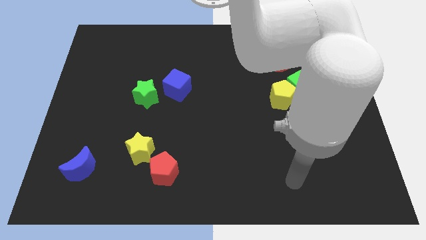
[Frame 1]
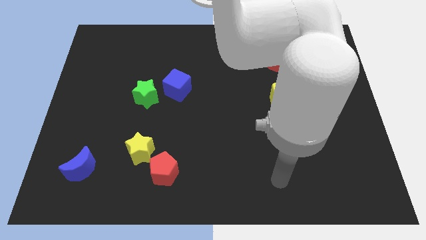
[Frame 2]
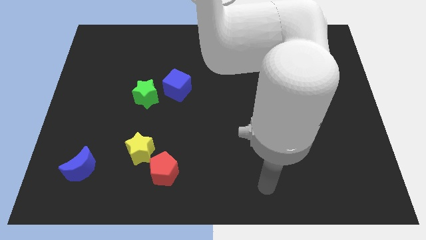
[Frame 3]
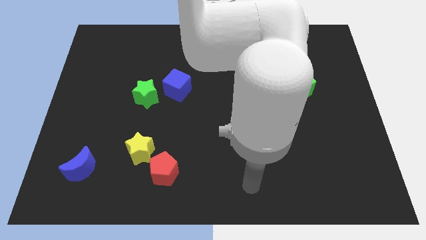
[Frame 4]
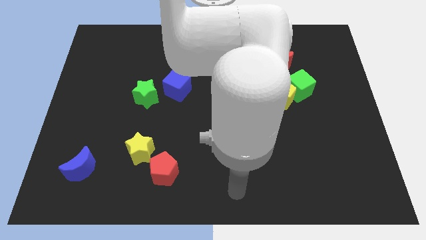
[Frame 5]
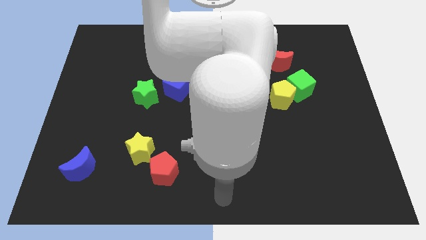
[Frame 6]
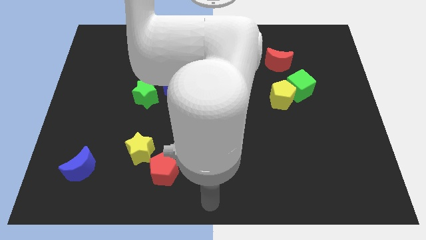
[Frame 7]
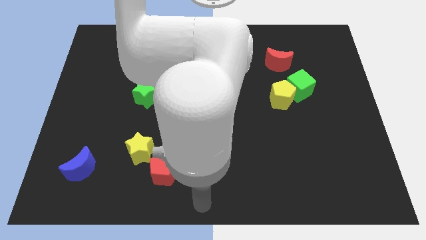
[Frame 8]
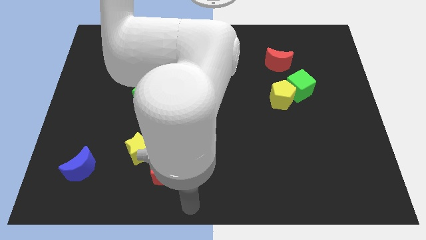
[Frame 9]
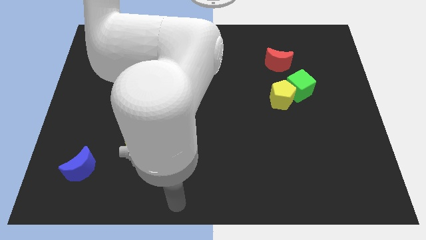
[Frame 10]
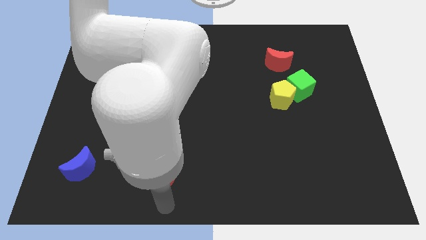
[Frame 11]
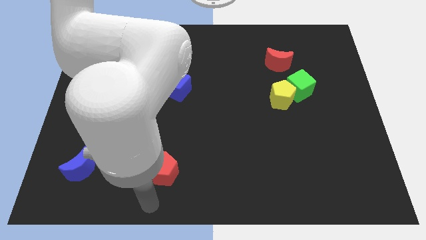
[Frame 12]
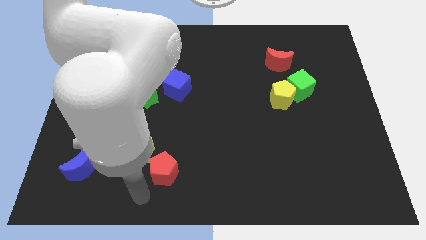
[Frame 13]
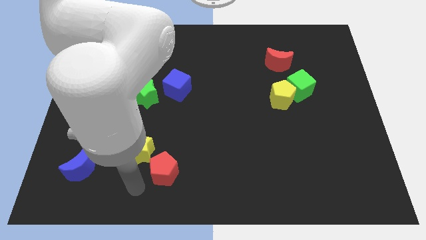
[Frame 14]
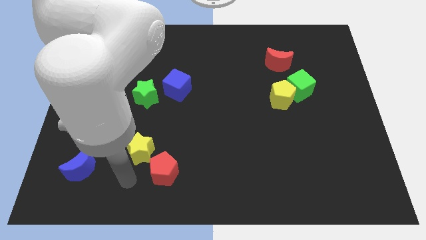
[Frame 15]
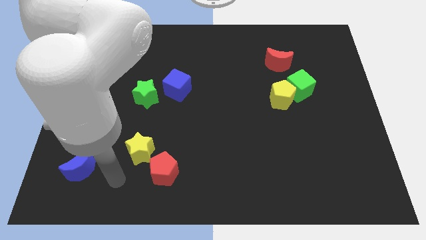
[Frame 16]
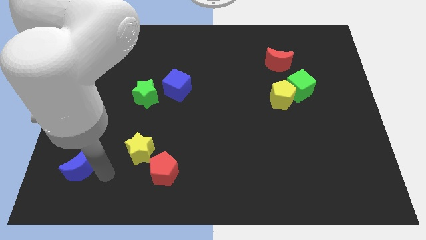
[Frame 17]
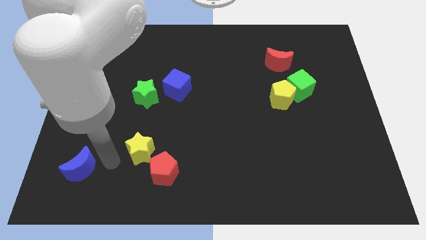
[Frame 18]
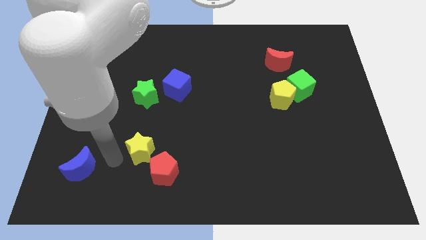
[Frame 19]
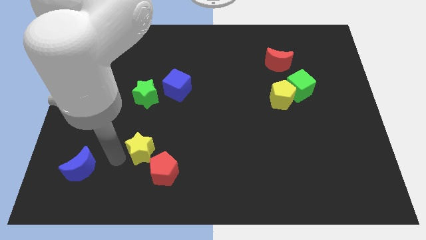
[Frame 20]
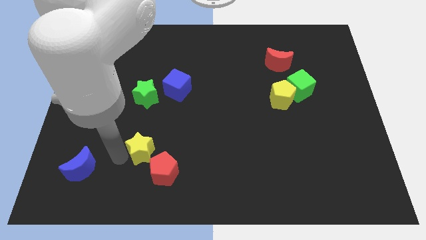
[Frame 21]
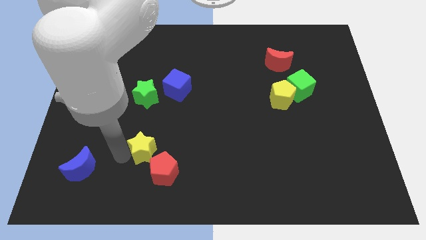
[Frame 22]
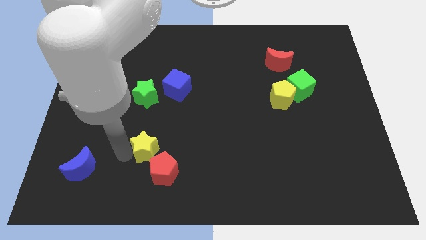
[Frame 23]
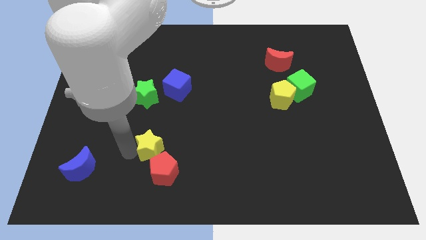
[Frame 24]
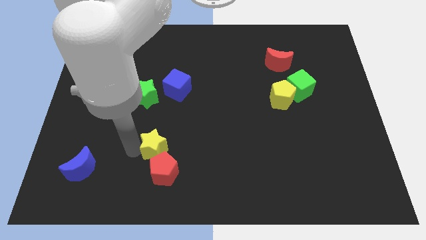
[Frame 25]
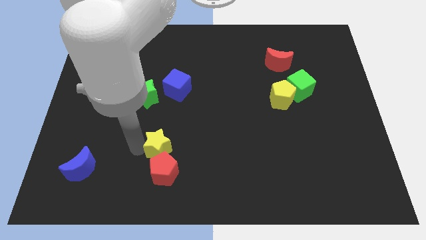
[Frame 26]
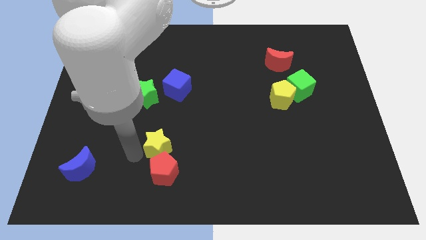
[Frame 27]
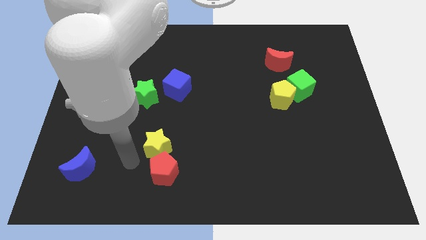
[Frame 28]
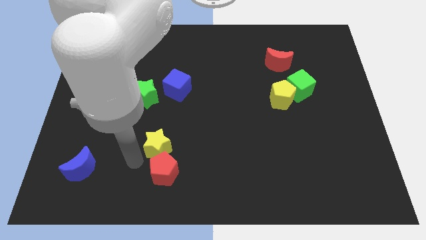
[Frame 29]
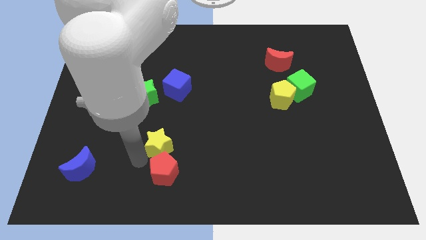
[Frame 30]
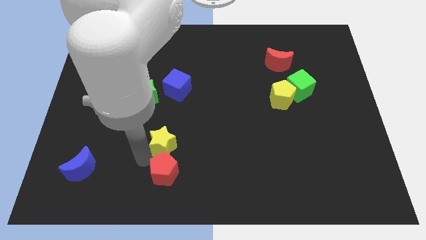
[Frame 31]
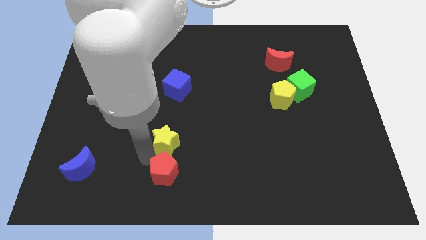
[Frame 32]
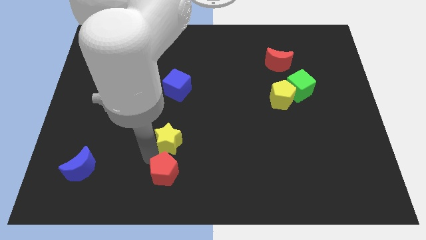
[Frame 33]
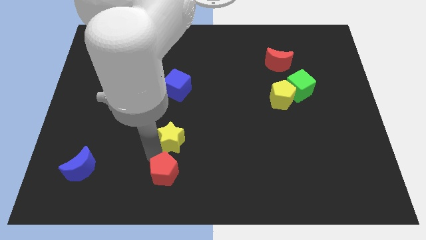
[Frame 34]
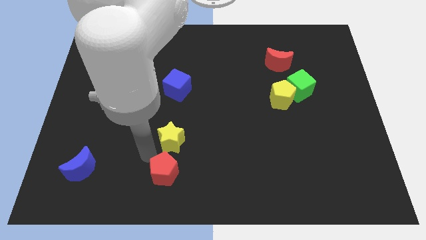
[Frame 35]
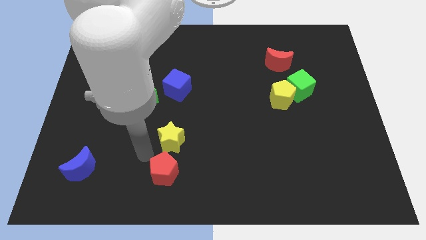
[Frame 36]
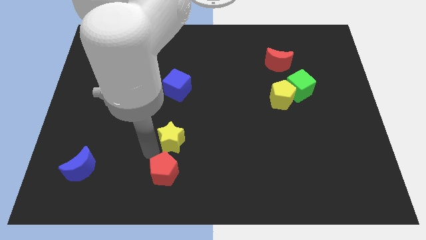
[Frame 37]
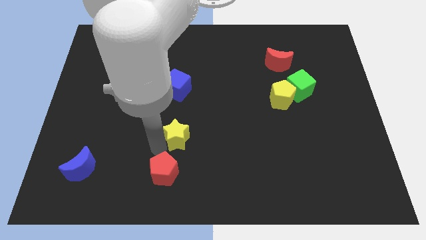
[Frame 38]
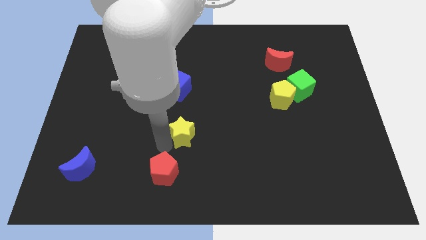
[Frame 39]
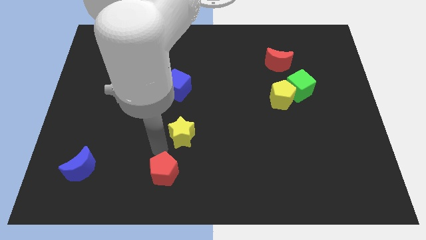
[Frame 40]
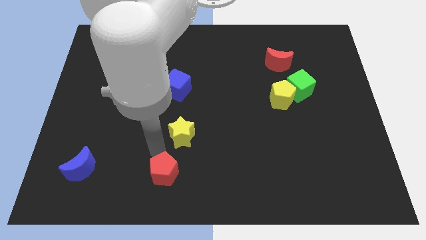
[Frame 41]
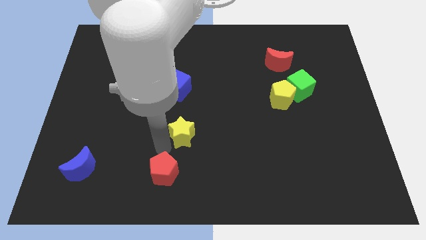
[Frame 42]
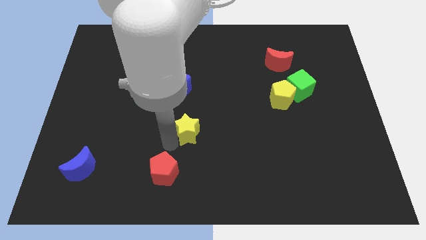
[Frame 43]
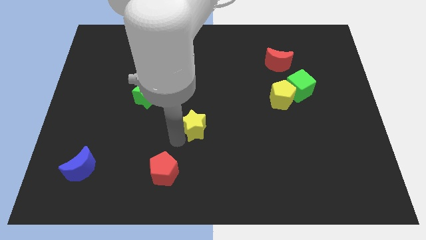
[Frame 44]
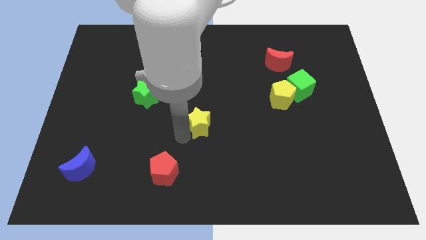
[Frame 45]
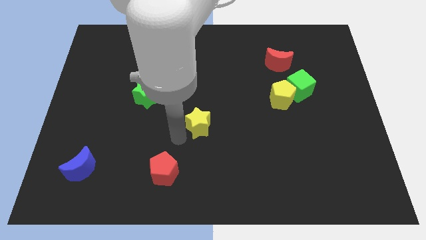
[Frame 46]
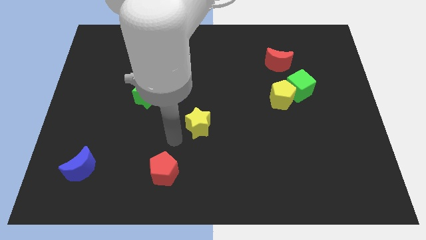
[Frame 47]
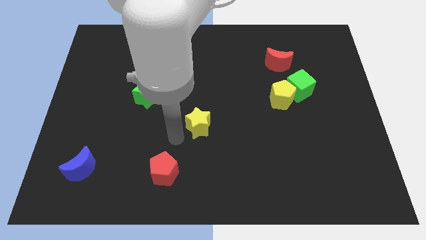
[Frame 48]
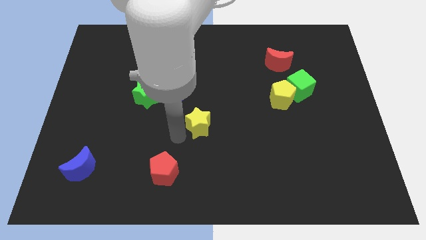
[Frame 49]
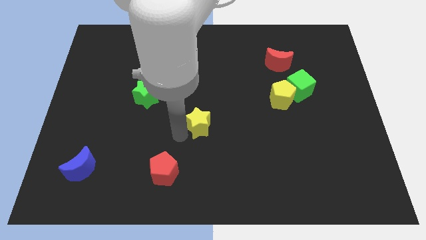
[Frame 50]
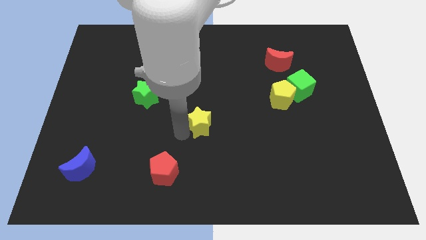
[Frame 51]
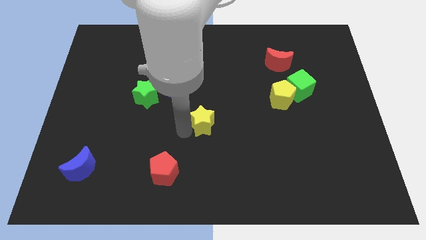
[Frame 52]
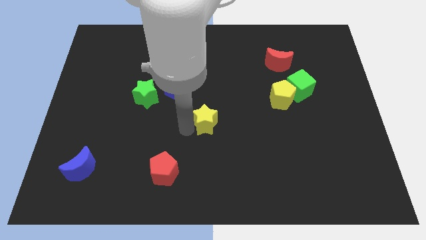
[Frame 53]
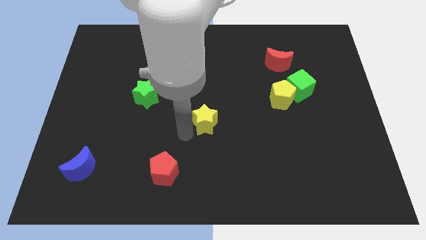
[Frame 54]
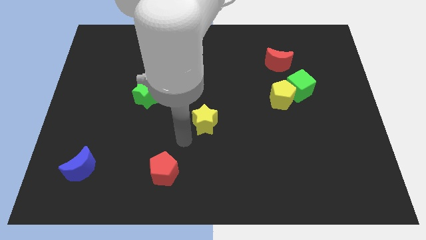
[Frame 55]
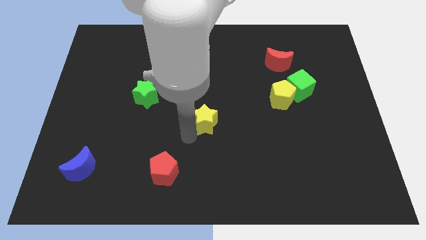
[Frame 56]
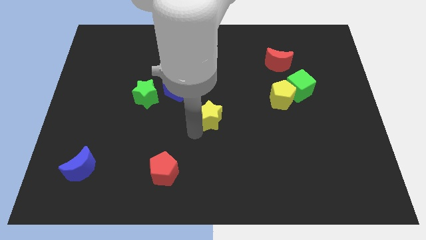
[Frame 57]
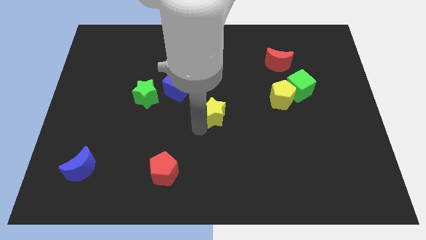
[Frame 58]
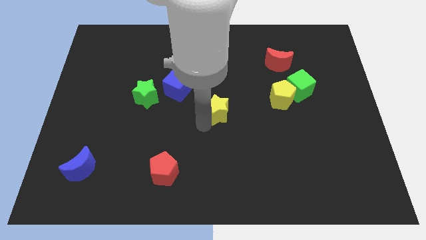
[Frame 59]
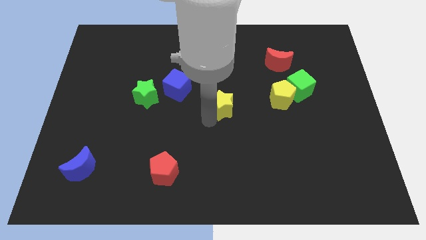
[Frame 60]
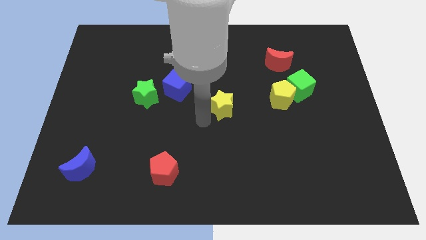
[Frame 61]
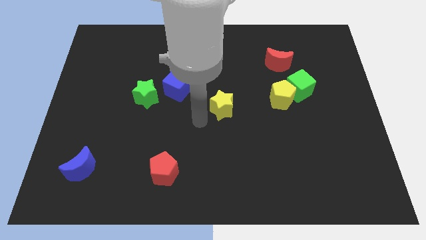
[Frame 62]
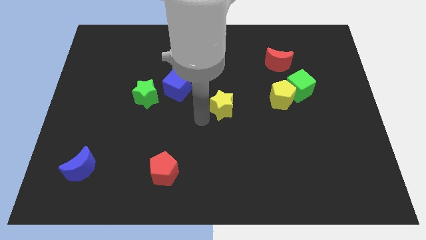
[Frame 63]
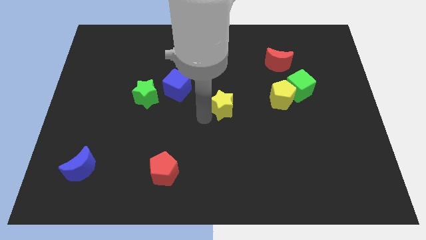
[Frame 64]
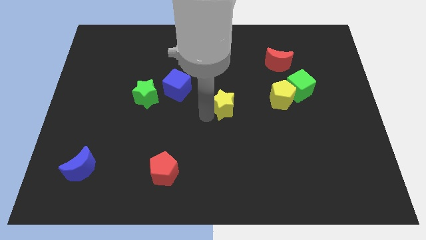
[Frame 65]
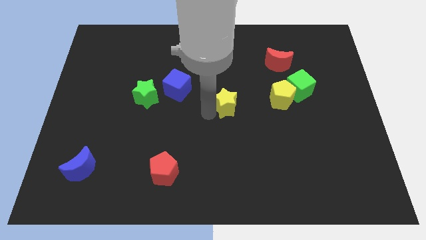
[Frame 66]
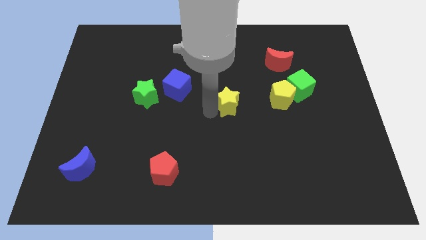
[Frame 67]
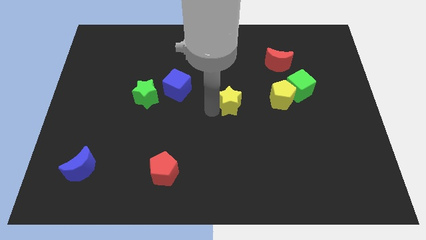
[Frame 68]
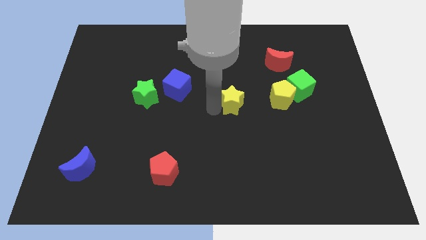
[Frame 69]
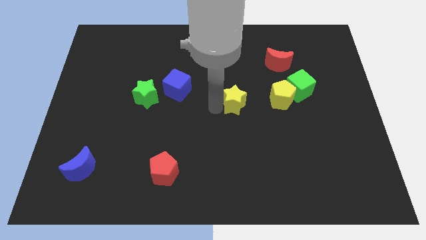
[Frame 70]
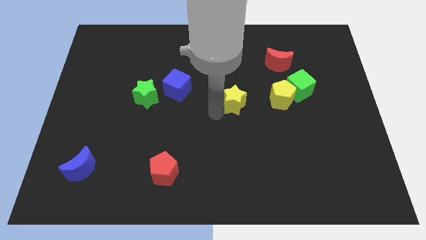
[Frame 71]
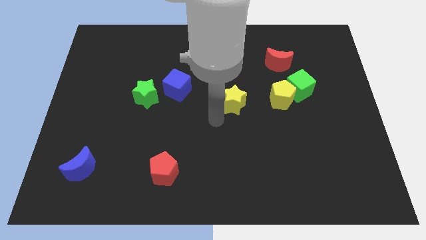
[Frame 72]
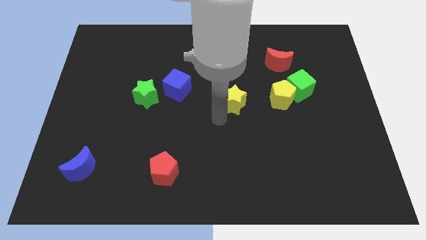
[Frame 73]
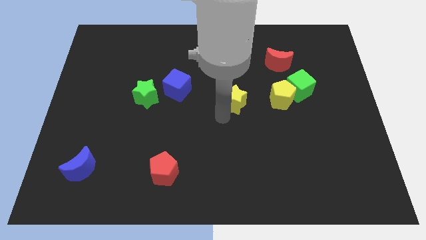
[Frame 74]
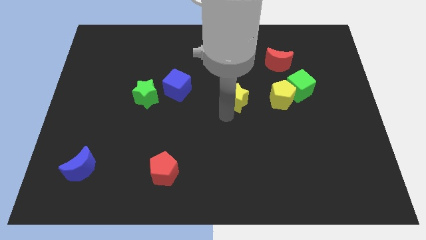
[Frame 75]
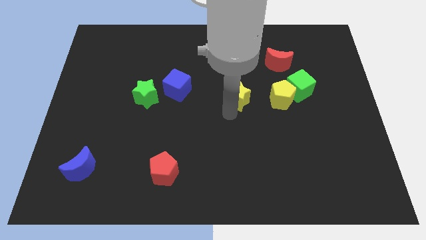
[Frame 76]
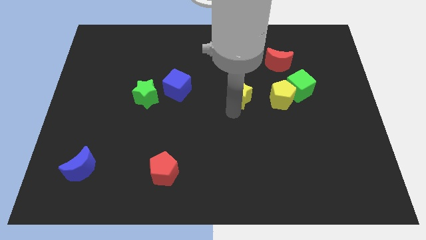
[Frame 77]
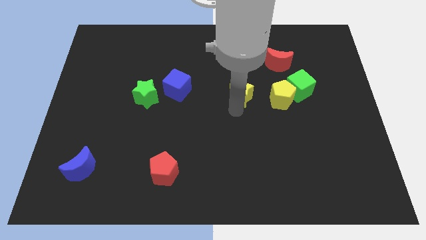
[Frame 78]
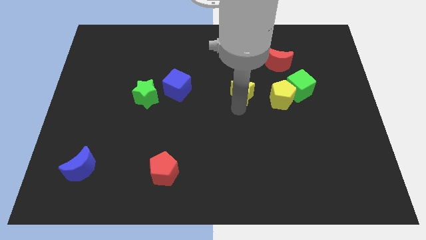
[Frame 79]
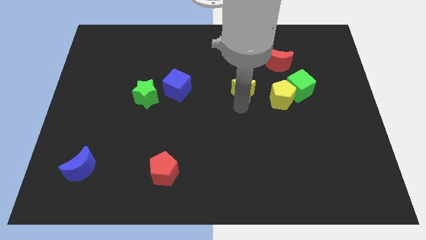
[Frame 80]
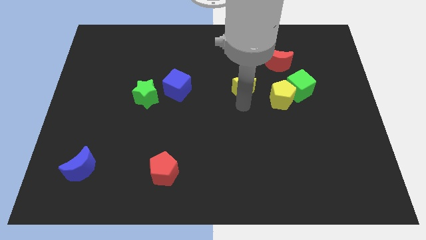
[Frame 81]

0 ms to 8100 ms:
put the yellow star to the top left of the yellow pentagon
